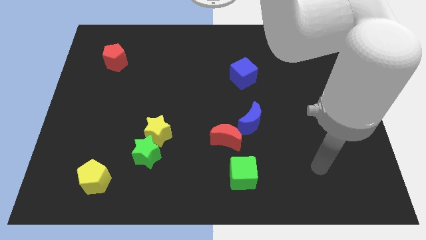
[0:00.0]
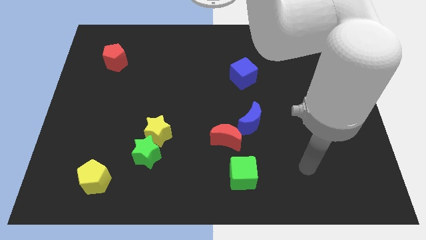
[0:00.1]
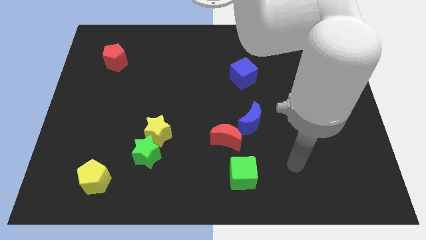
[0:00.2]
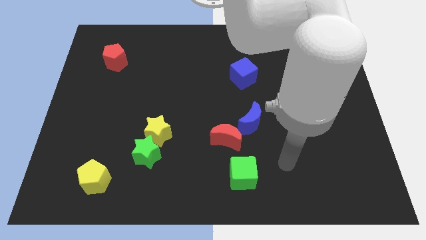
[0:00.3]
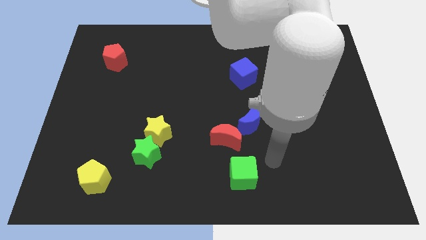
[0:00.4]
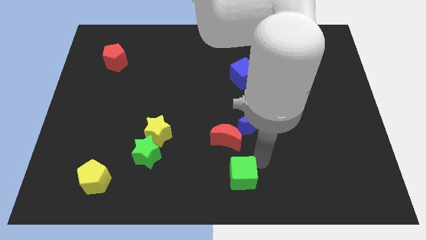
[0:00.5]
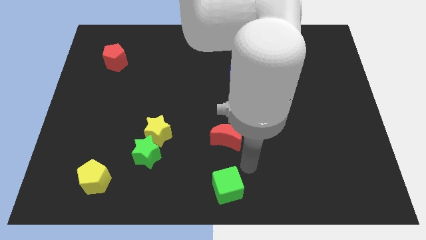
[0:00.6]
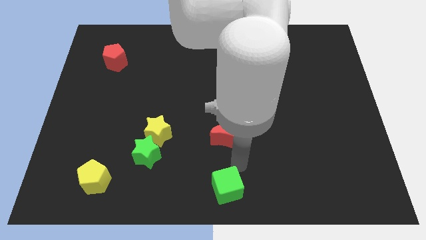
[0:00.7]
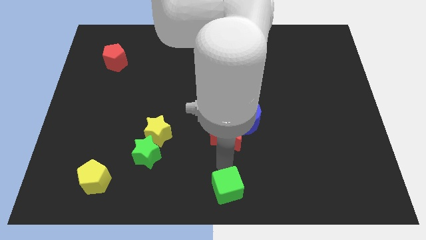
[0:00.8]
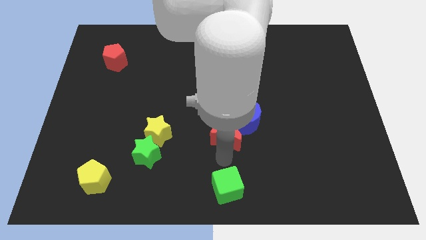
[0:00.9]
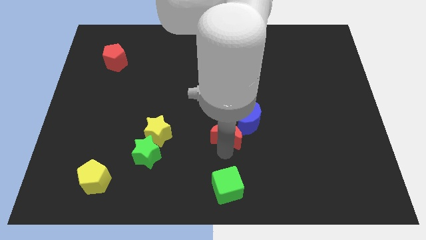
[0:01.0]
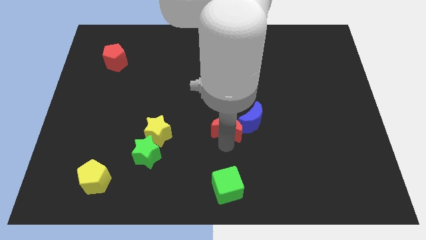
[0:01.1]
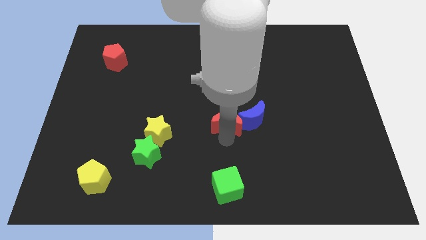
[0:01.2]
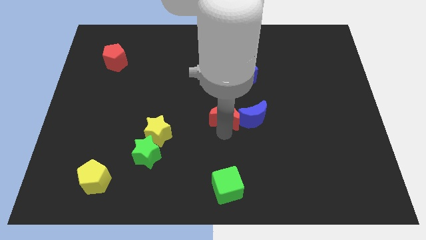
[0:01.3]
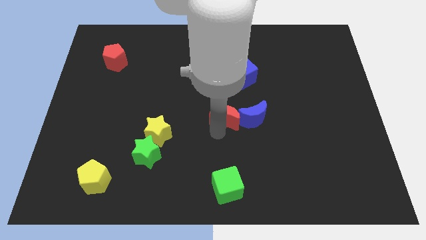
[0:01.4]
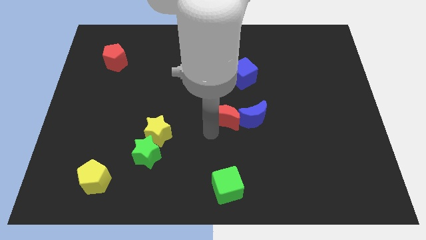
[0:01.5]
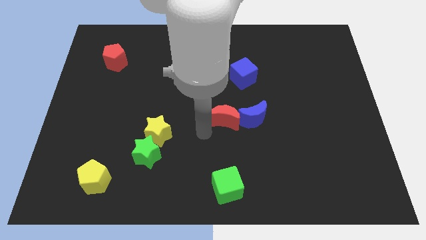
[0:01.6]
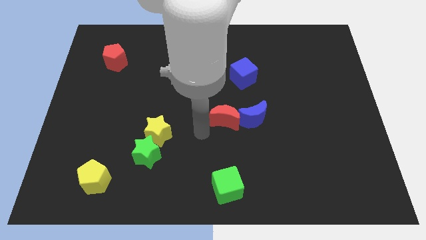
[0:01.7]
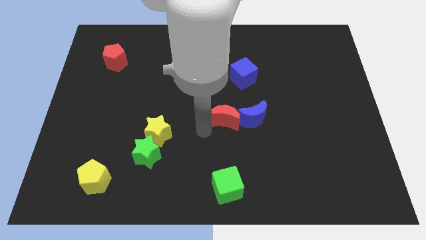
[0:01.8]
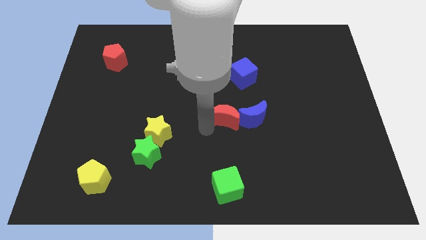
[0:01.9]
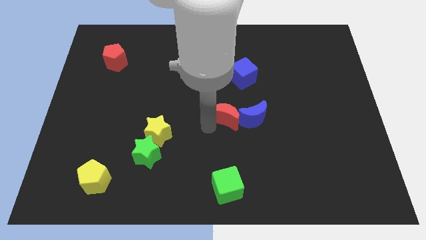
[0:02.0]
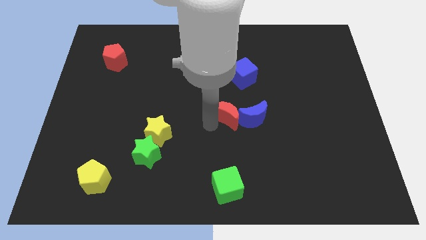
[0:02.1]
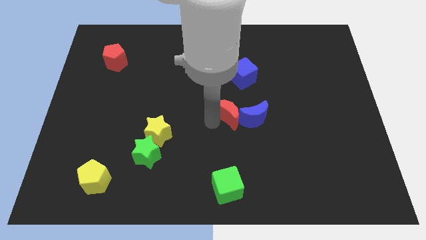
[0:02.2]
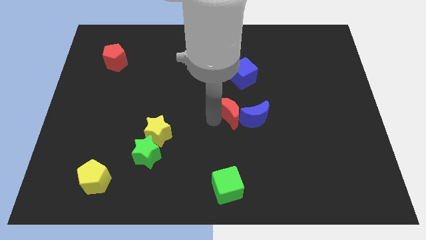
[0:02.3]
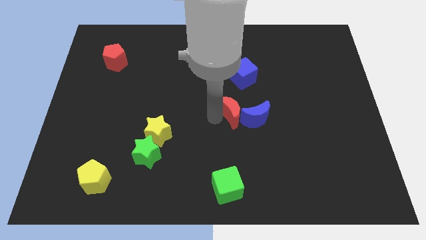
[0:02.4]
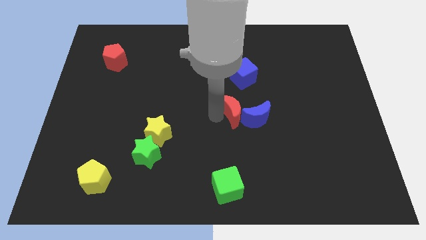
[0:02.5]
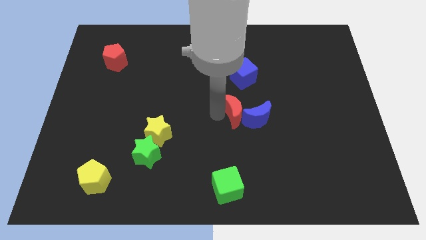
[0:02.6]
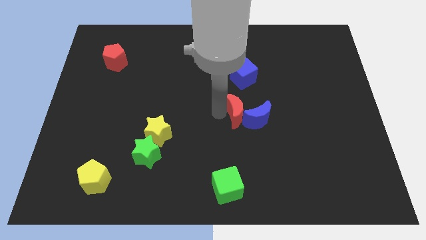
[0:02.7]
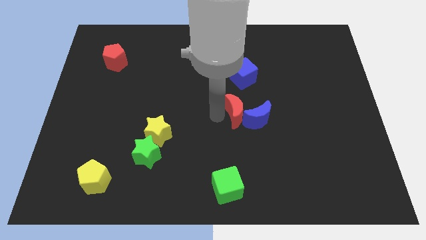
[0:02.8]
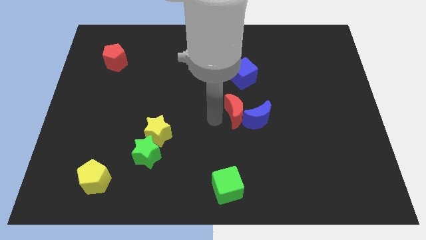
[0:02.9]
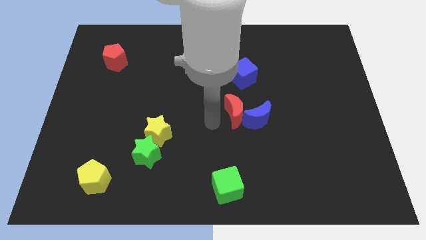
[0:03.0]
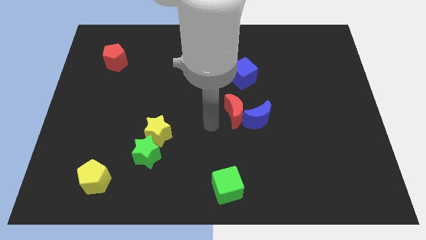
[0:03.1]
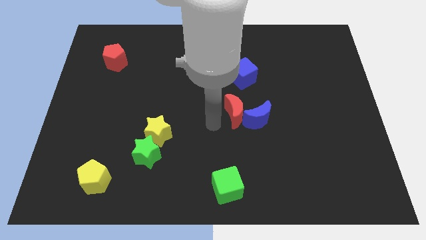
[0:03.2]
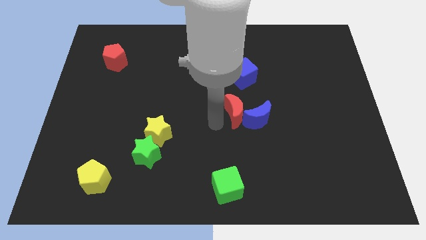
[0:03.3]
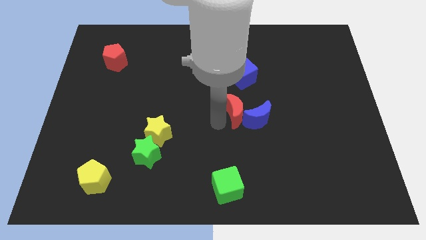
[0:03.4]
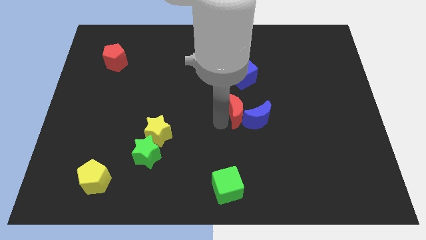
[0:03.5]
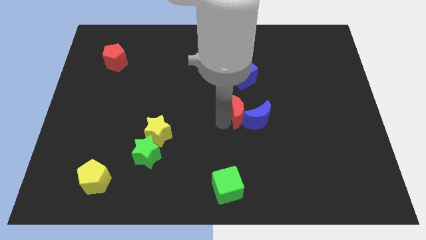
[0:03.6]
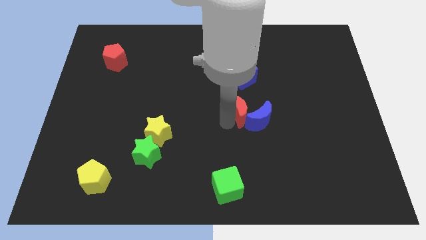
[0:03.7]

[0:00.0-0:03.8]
push the red moon a little bit upwards and then right

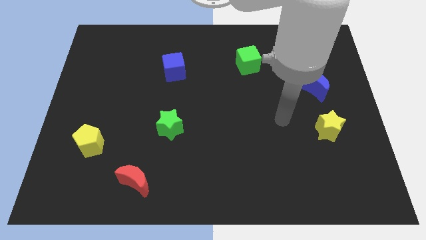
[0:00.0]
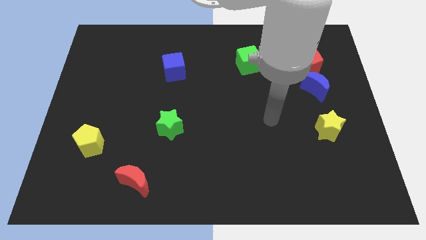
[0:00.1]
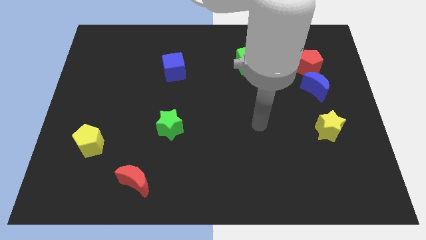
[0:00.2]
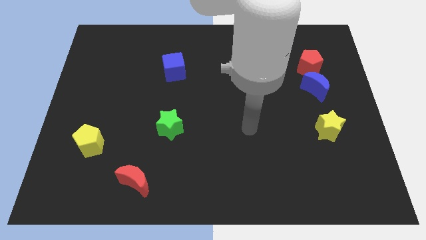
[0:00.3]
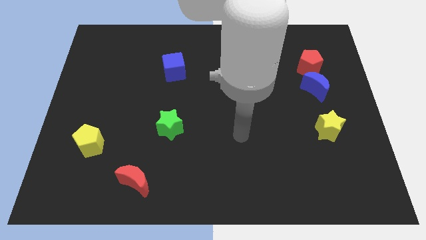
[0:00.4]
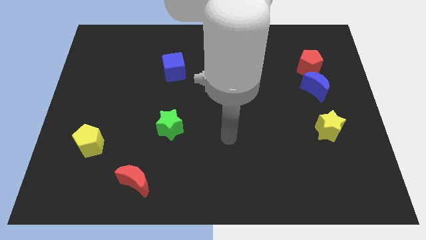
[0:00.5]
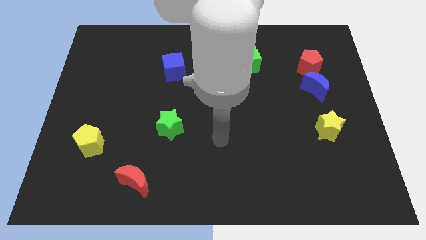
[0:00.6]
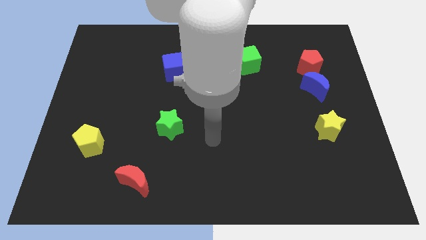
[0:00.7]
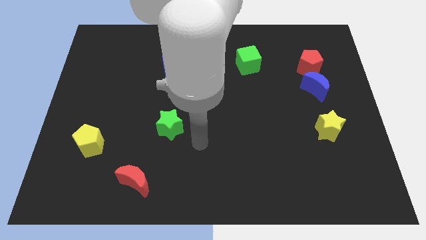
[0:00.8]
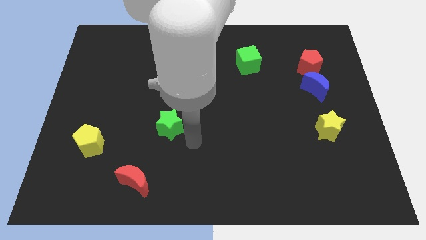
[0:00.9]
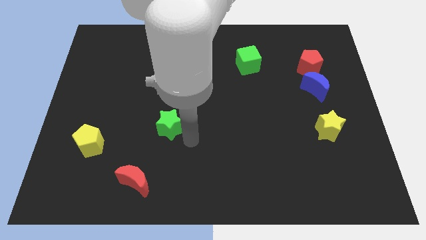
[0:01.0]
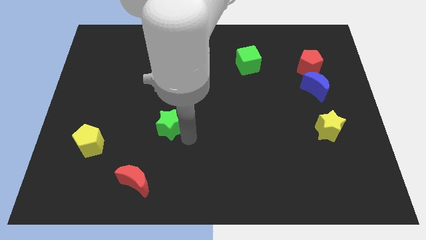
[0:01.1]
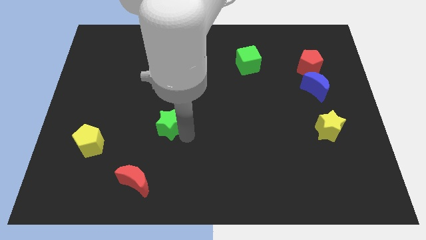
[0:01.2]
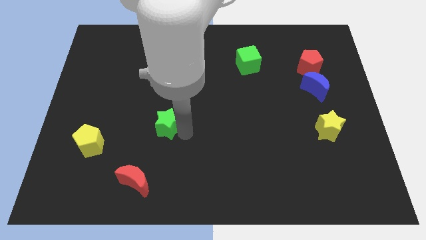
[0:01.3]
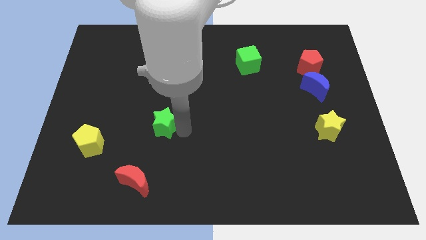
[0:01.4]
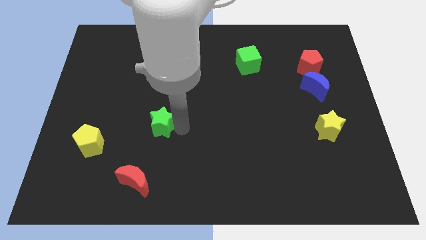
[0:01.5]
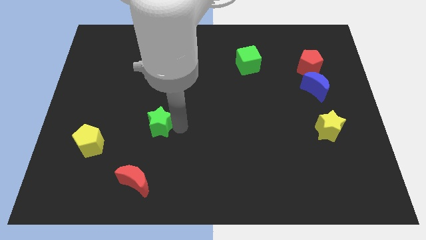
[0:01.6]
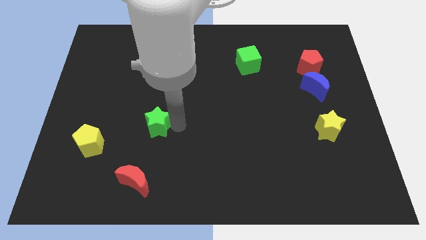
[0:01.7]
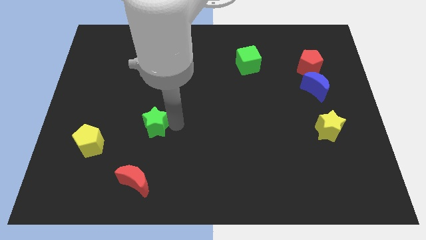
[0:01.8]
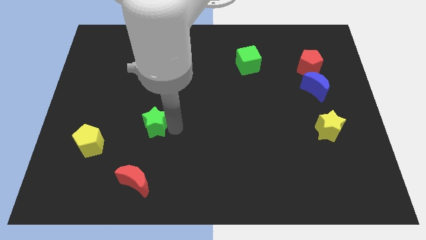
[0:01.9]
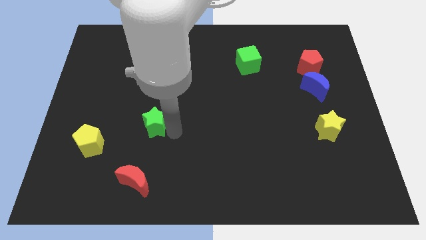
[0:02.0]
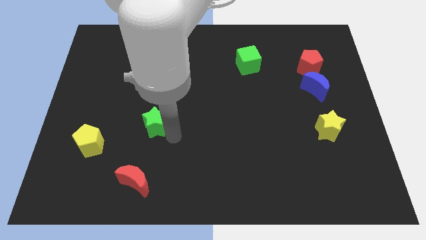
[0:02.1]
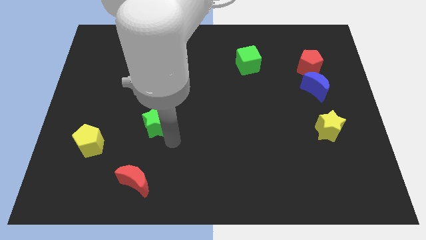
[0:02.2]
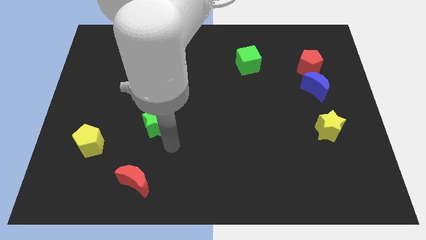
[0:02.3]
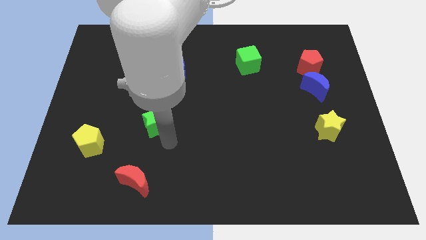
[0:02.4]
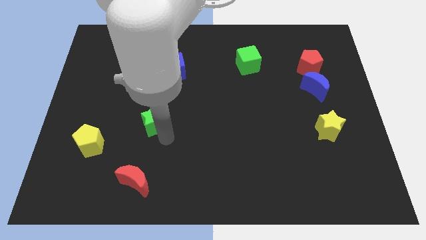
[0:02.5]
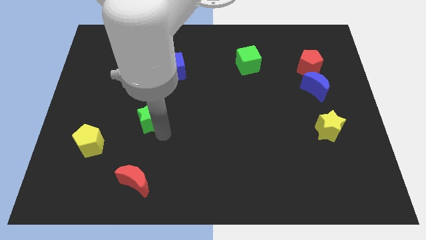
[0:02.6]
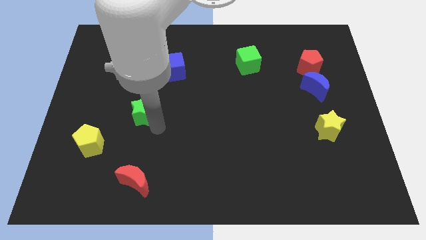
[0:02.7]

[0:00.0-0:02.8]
move the green star upwards and left diagonally slightly

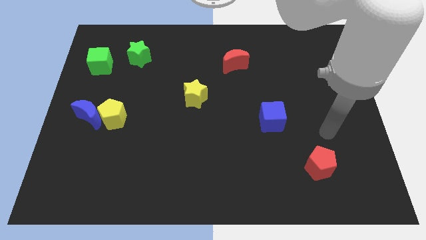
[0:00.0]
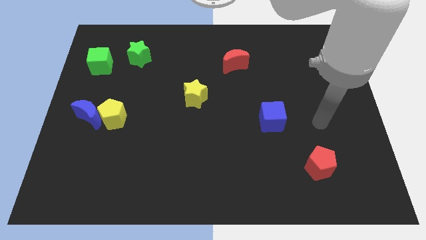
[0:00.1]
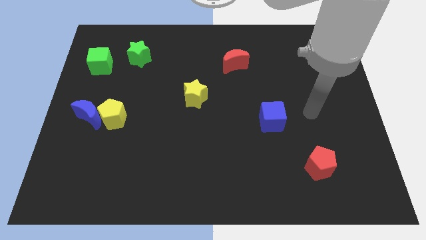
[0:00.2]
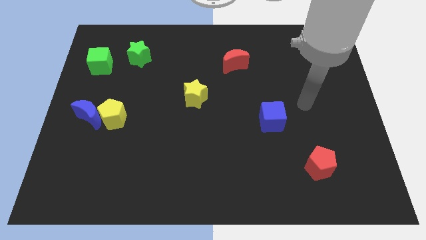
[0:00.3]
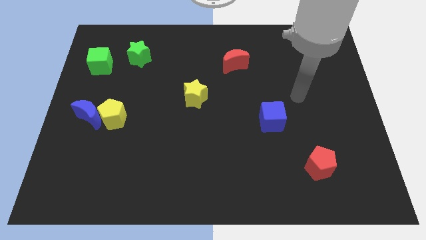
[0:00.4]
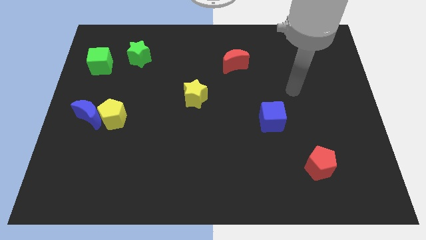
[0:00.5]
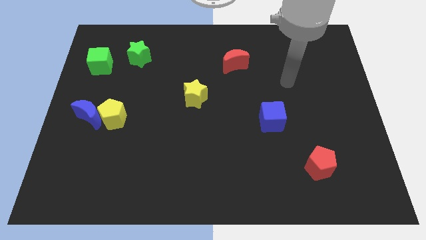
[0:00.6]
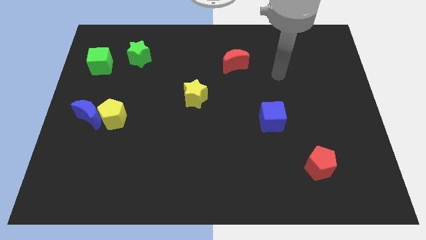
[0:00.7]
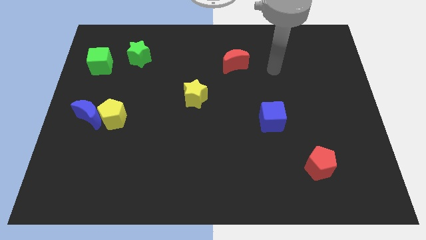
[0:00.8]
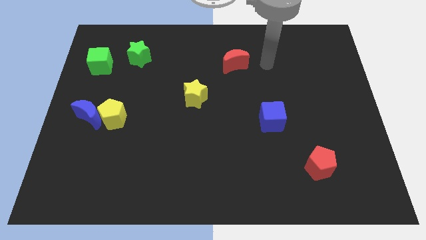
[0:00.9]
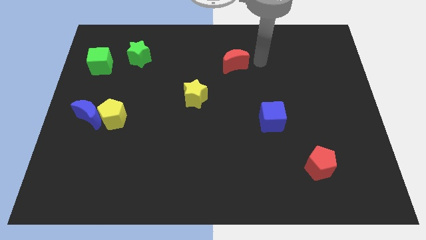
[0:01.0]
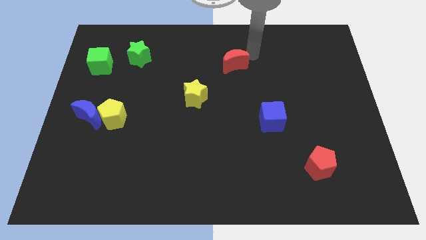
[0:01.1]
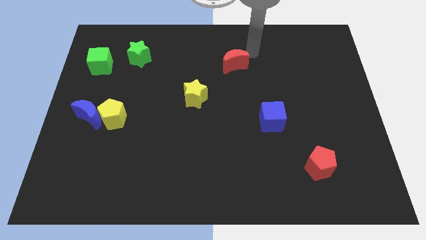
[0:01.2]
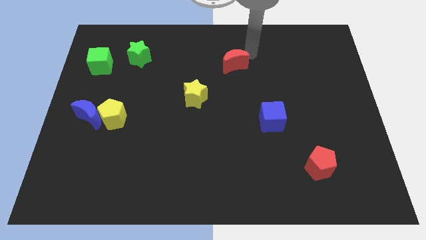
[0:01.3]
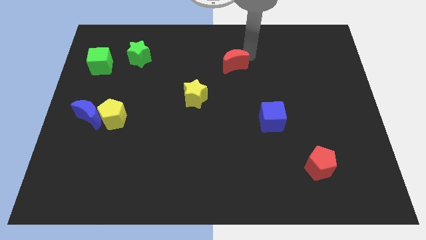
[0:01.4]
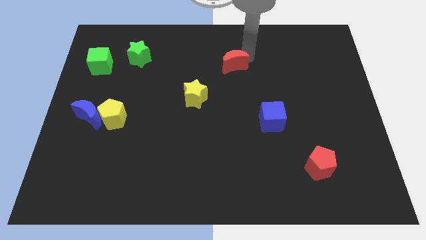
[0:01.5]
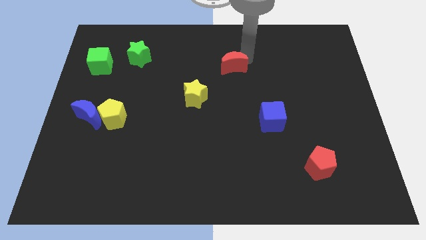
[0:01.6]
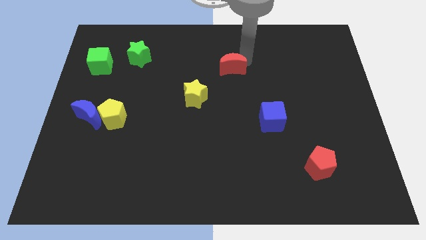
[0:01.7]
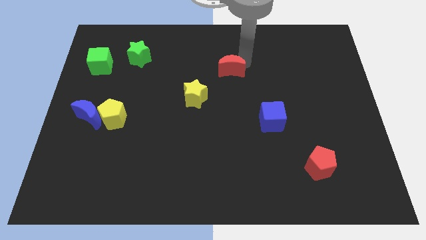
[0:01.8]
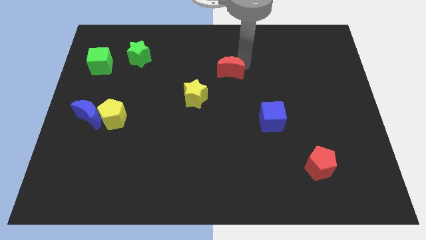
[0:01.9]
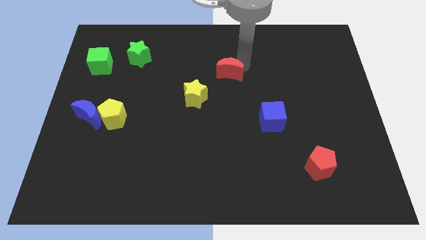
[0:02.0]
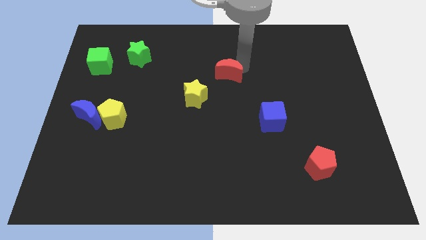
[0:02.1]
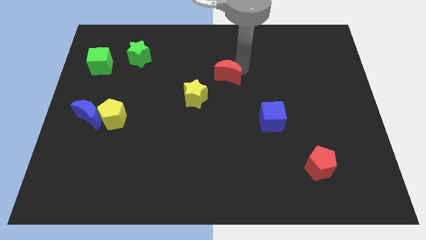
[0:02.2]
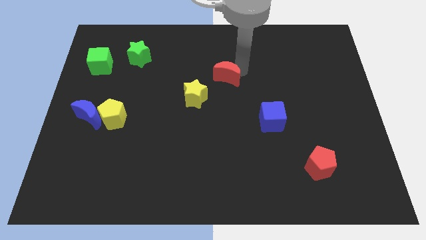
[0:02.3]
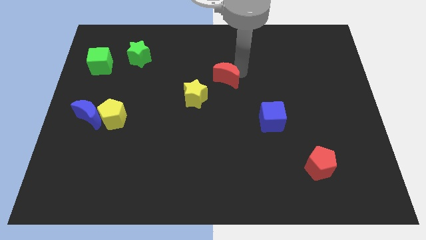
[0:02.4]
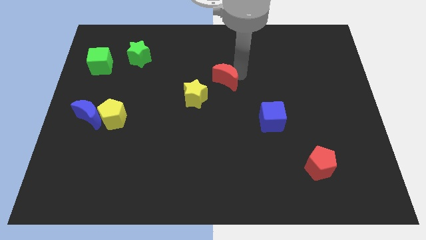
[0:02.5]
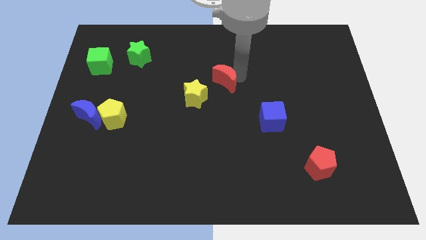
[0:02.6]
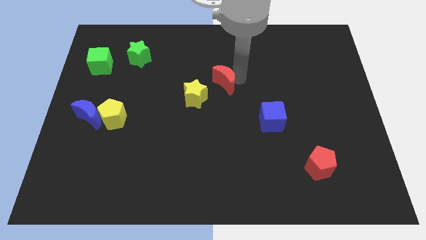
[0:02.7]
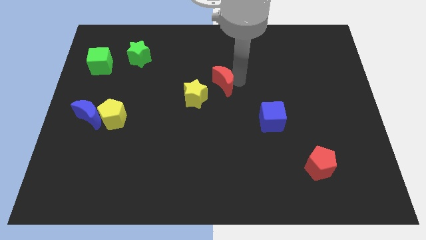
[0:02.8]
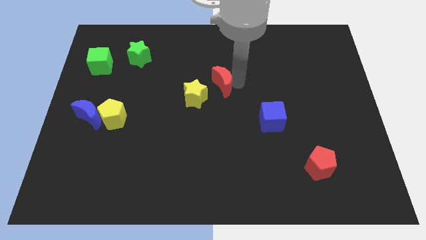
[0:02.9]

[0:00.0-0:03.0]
move the red moon slightly downwards and left
